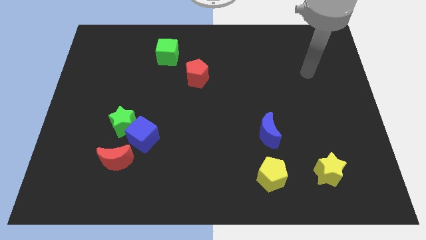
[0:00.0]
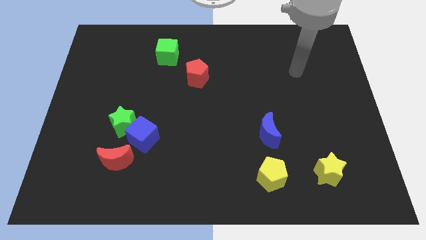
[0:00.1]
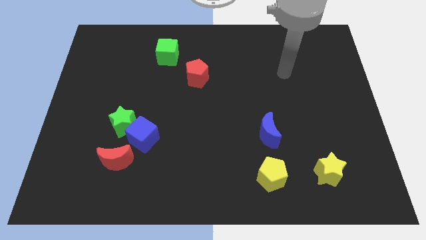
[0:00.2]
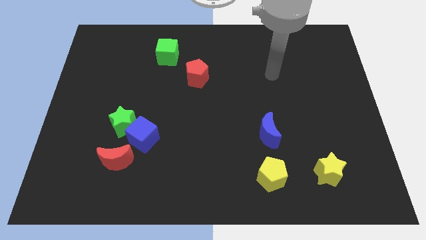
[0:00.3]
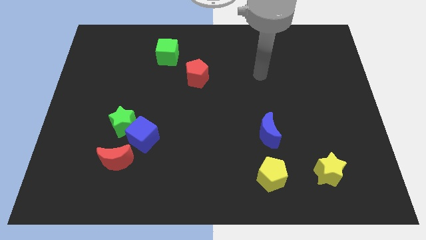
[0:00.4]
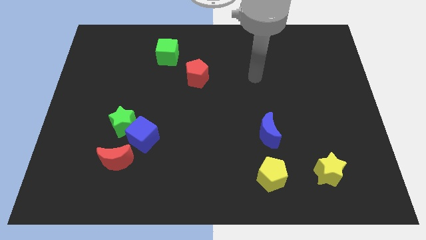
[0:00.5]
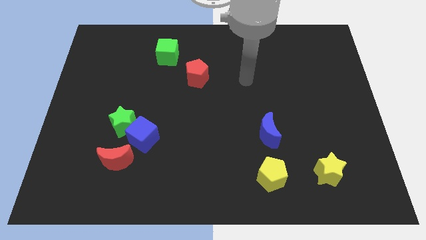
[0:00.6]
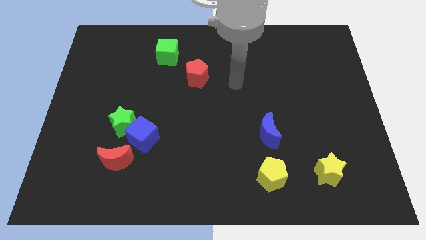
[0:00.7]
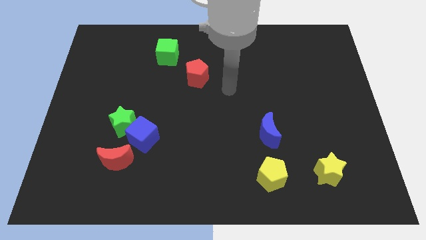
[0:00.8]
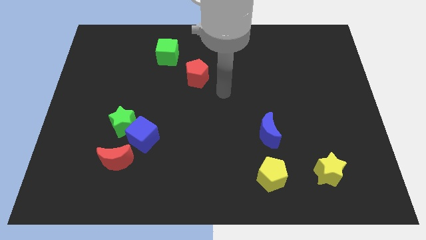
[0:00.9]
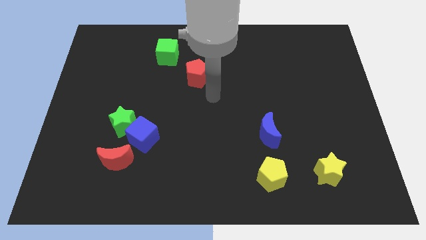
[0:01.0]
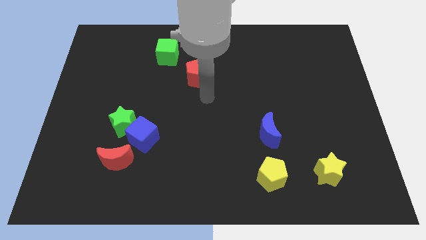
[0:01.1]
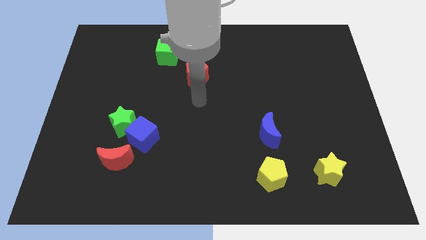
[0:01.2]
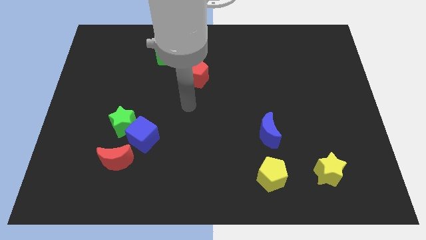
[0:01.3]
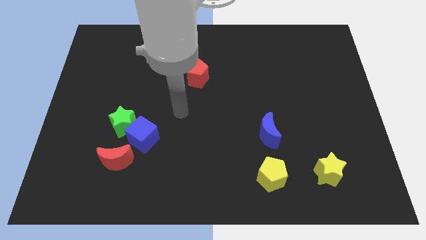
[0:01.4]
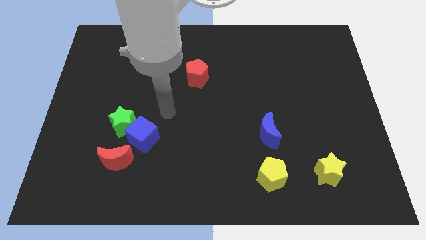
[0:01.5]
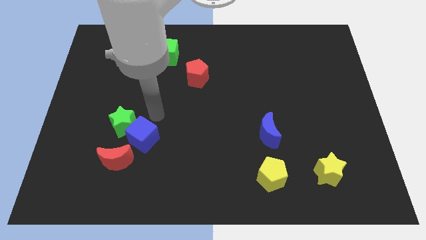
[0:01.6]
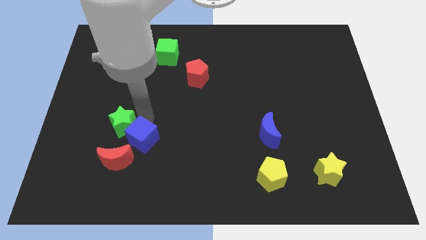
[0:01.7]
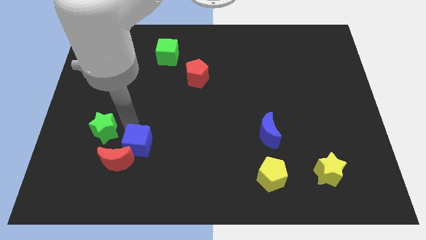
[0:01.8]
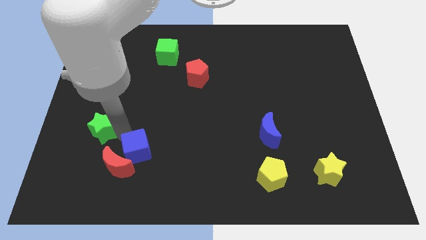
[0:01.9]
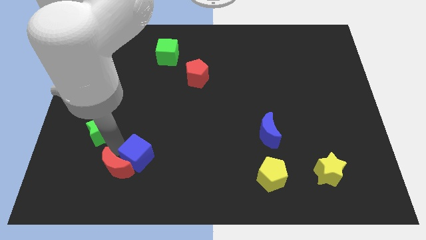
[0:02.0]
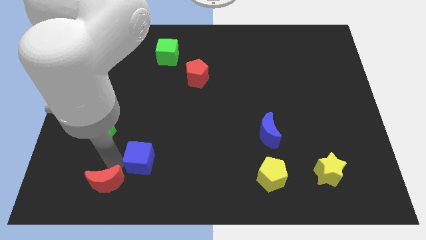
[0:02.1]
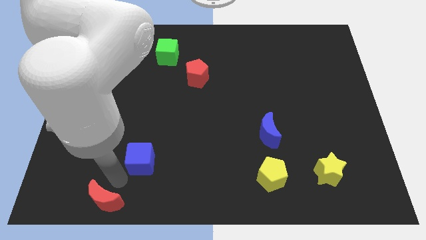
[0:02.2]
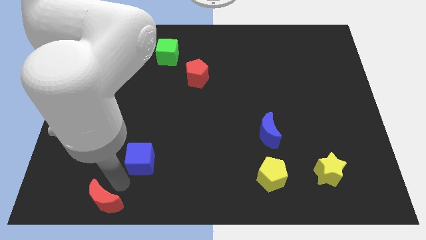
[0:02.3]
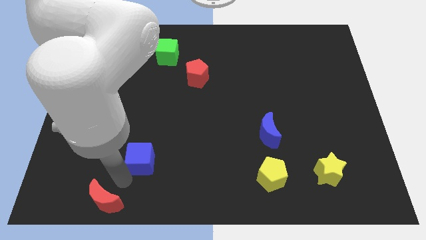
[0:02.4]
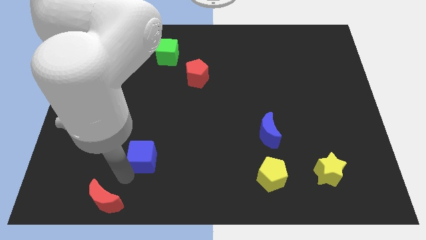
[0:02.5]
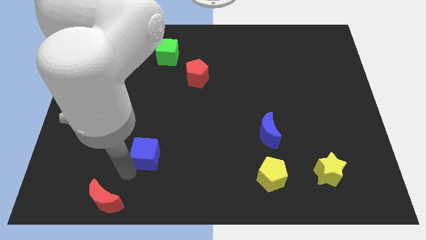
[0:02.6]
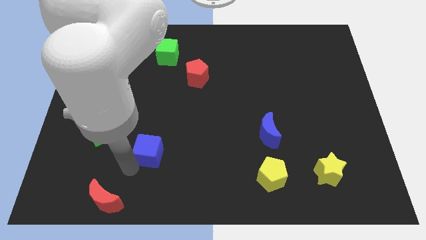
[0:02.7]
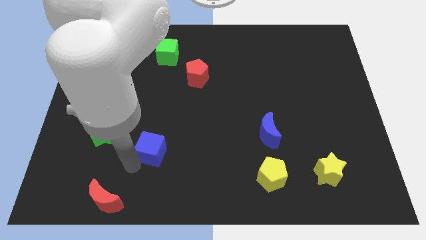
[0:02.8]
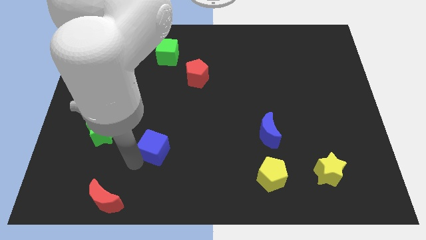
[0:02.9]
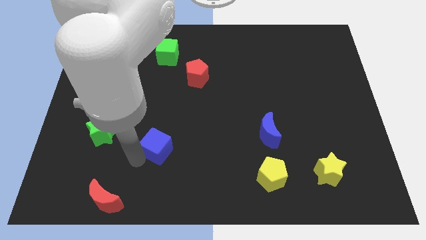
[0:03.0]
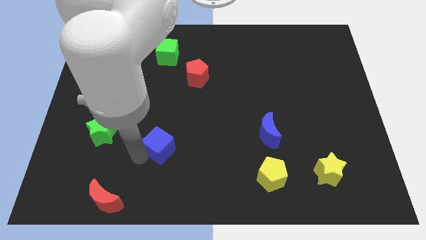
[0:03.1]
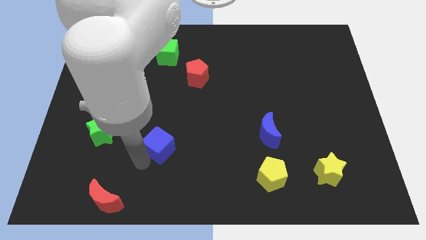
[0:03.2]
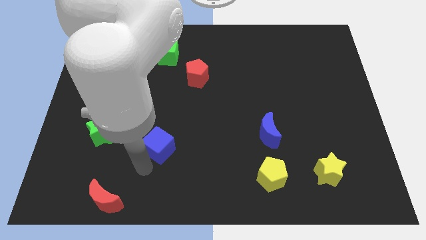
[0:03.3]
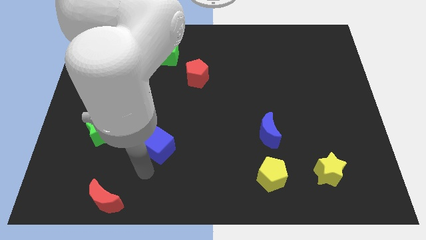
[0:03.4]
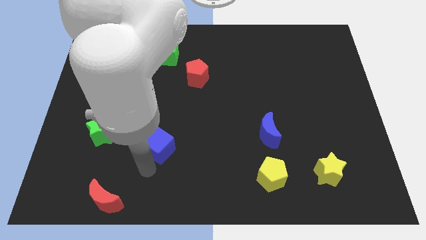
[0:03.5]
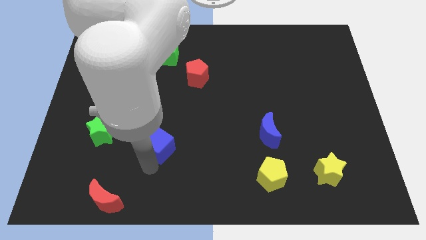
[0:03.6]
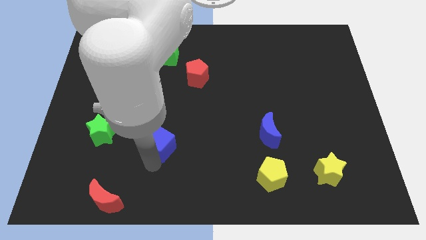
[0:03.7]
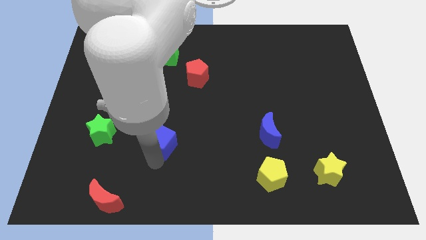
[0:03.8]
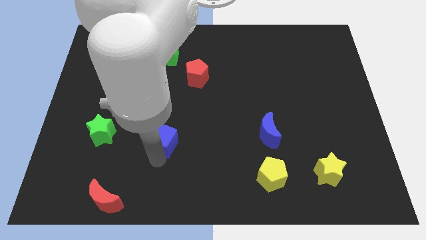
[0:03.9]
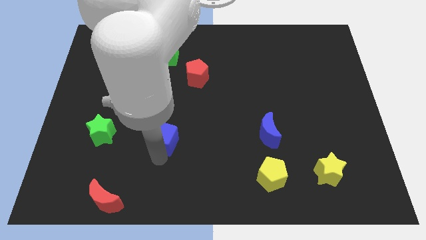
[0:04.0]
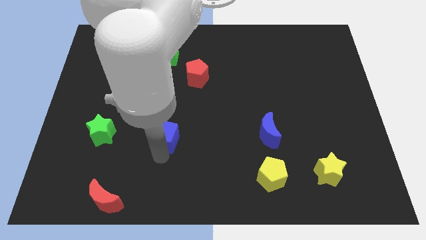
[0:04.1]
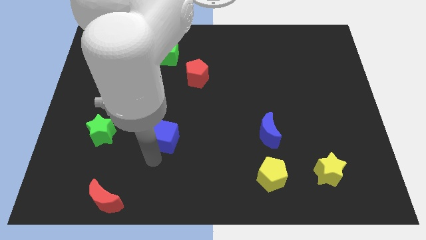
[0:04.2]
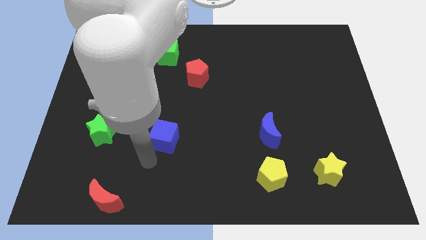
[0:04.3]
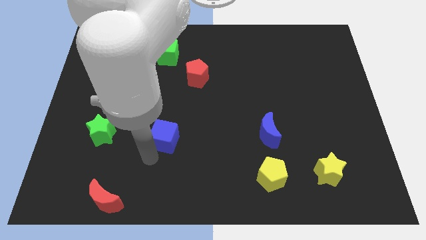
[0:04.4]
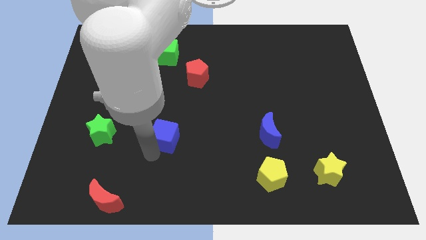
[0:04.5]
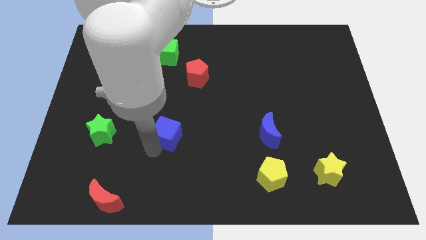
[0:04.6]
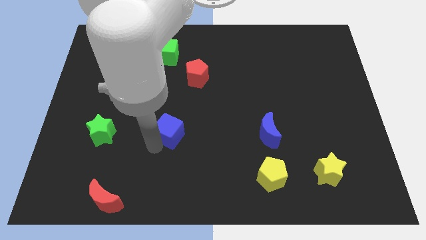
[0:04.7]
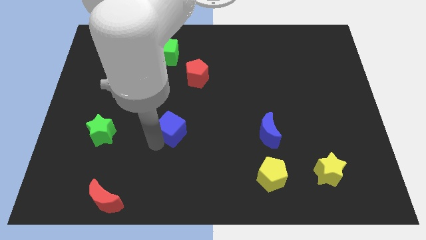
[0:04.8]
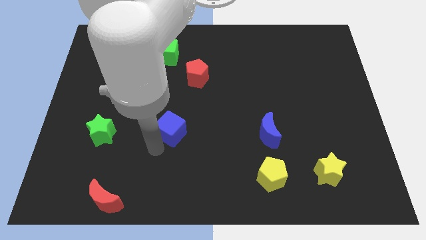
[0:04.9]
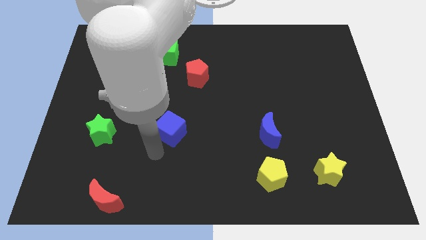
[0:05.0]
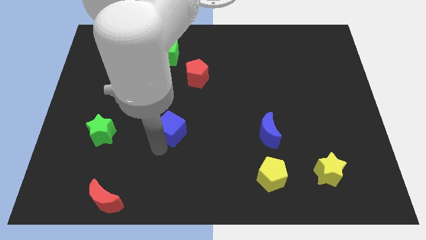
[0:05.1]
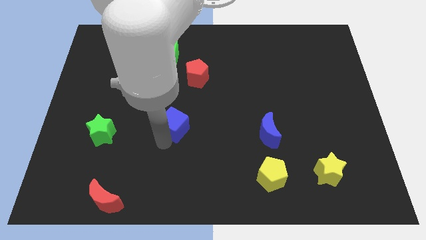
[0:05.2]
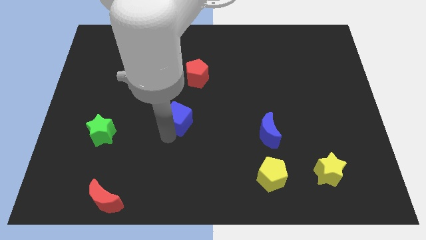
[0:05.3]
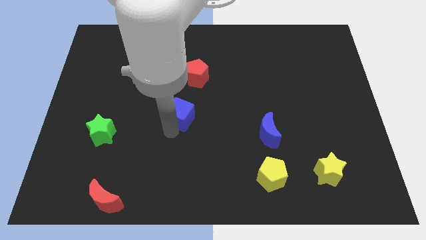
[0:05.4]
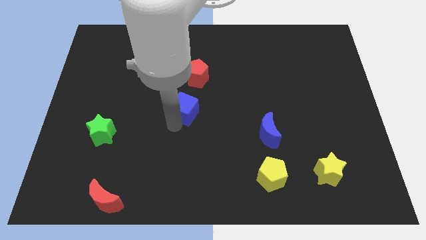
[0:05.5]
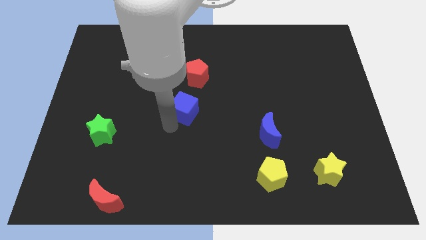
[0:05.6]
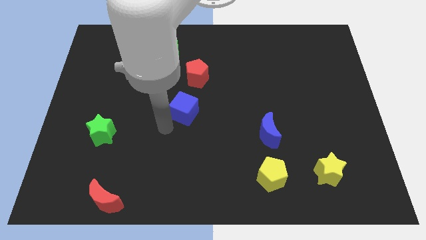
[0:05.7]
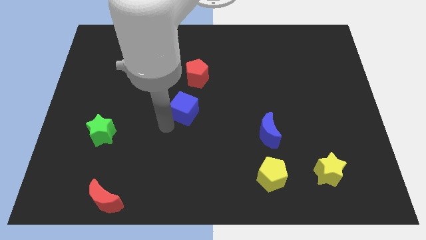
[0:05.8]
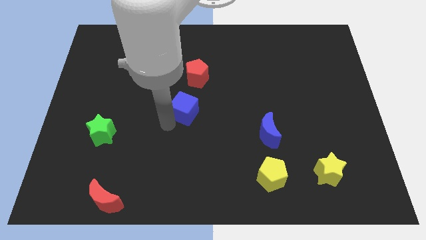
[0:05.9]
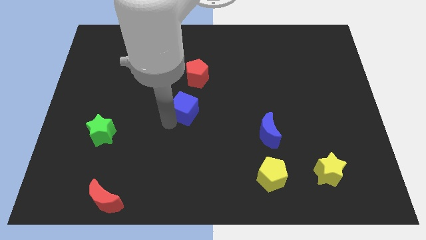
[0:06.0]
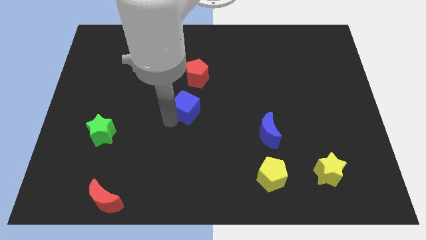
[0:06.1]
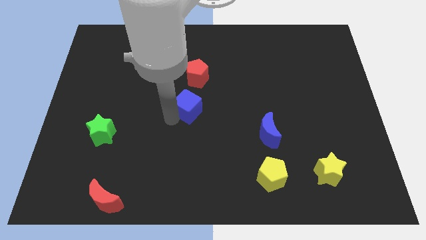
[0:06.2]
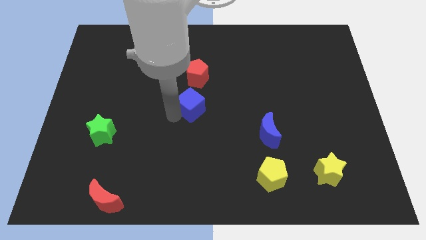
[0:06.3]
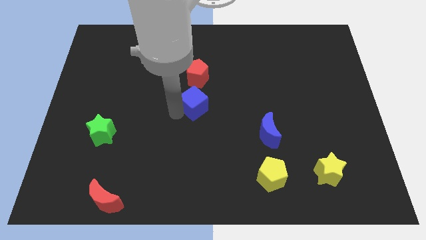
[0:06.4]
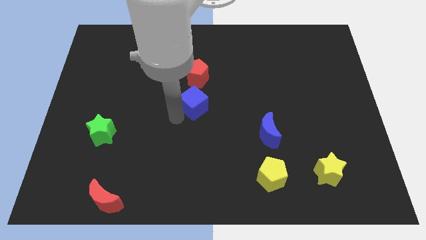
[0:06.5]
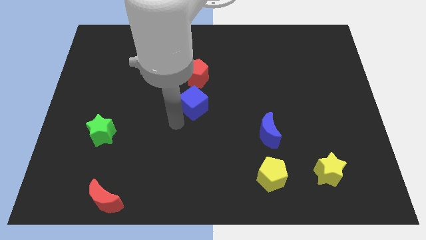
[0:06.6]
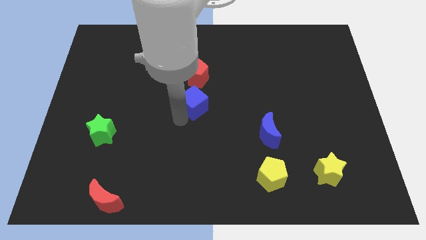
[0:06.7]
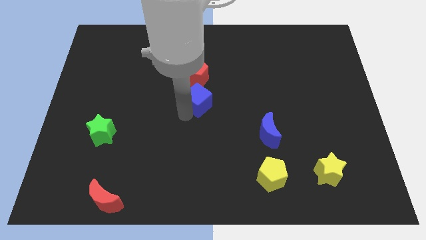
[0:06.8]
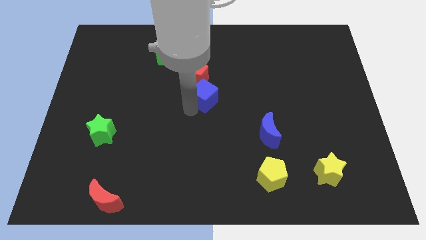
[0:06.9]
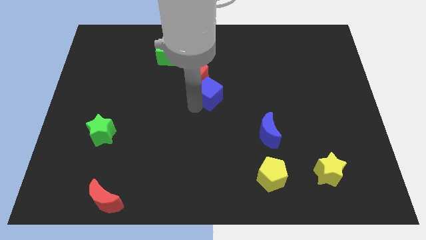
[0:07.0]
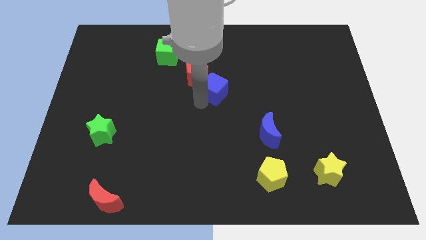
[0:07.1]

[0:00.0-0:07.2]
move the blue cube upwards and then to the right

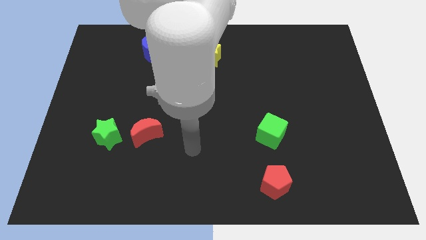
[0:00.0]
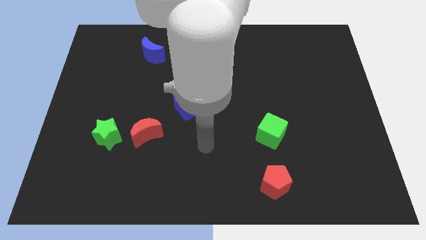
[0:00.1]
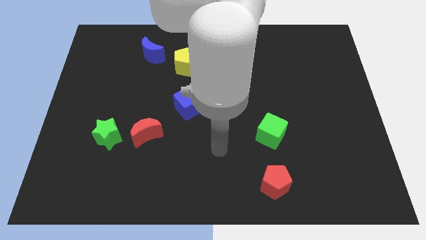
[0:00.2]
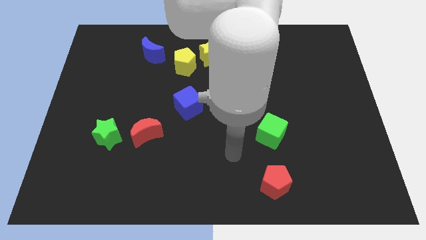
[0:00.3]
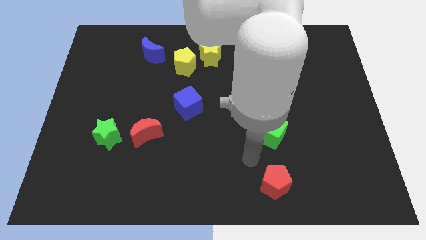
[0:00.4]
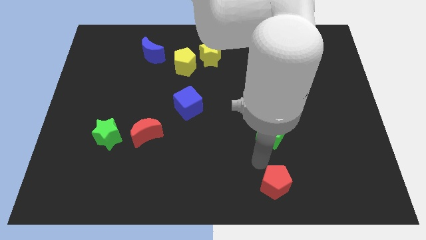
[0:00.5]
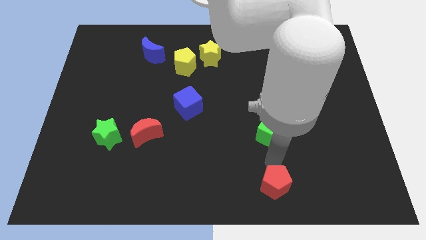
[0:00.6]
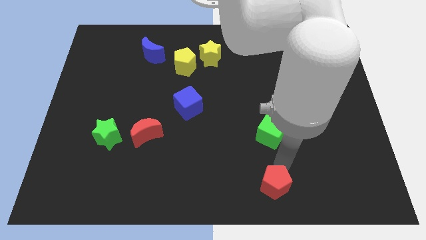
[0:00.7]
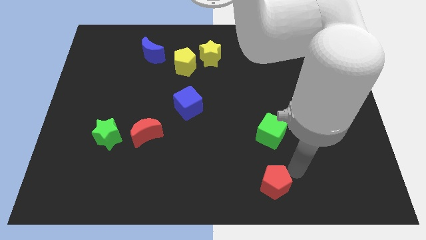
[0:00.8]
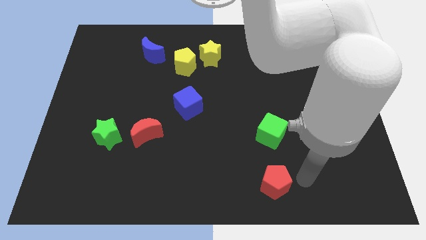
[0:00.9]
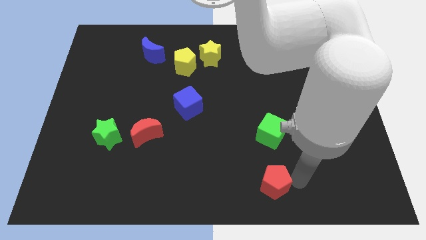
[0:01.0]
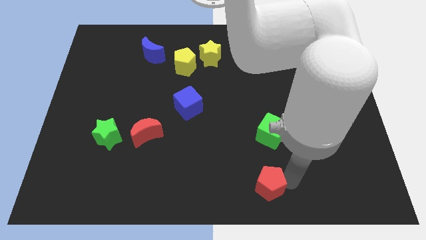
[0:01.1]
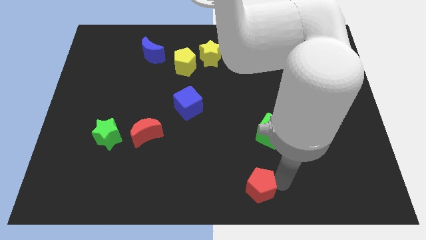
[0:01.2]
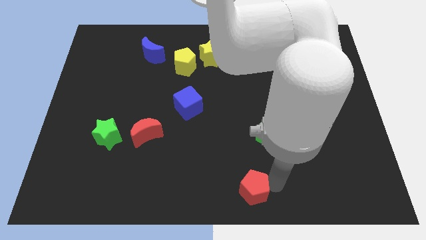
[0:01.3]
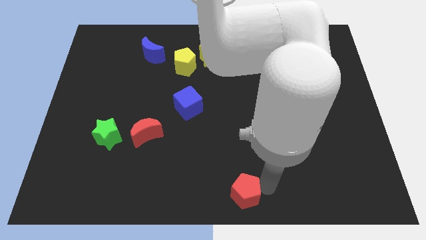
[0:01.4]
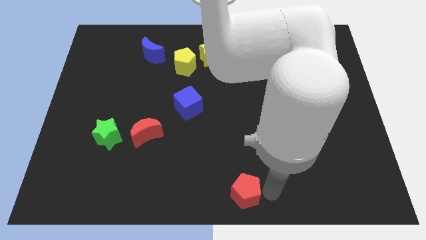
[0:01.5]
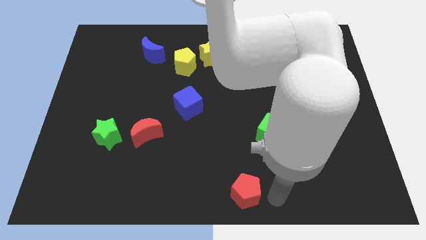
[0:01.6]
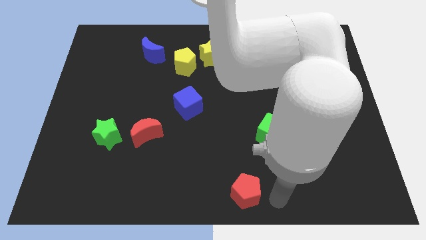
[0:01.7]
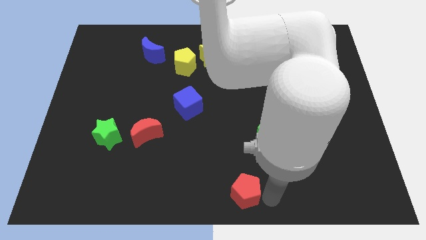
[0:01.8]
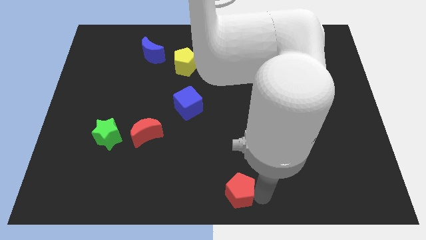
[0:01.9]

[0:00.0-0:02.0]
push the red pentagon left a bit
